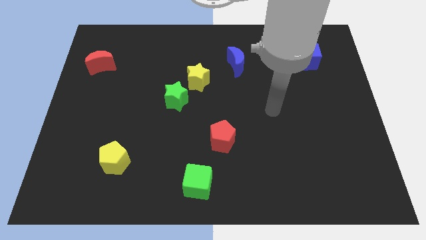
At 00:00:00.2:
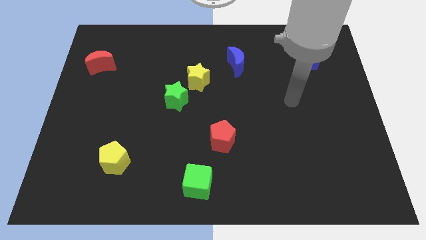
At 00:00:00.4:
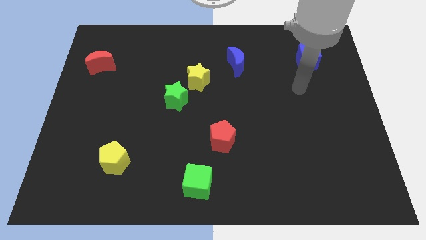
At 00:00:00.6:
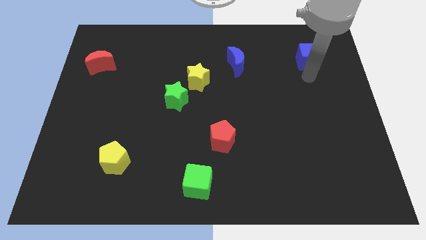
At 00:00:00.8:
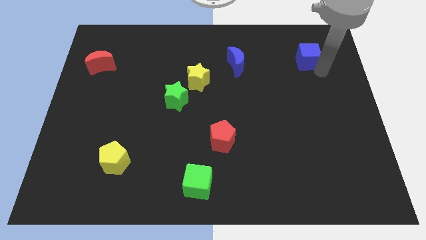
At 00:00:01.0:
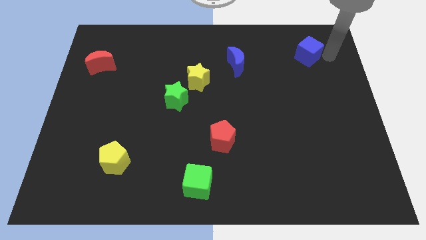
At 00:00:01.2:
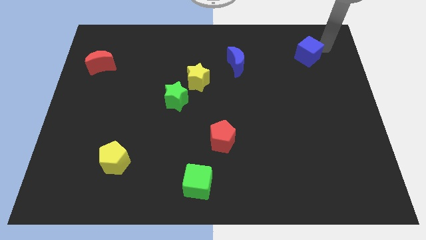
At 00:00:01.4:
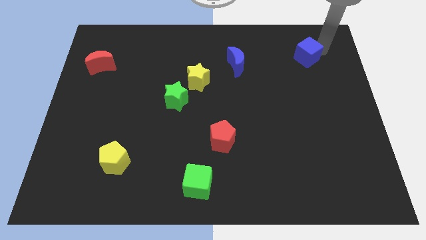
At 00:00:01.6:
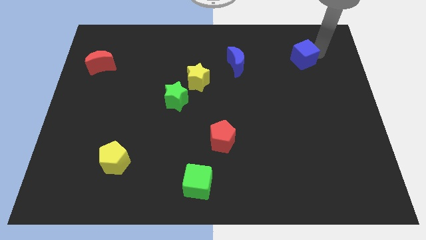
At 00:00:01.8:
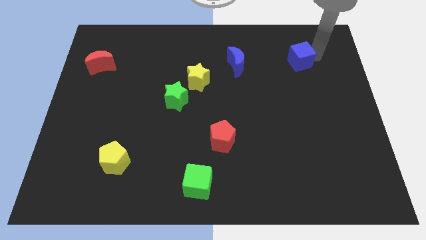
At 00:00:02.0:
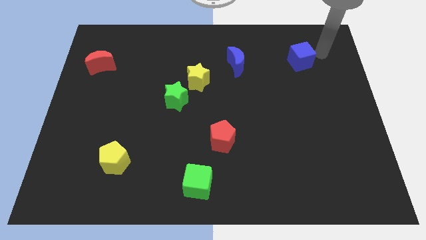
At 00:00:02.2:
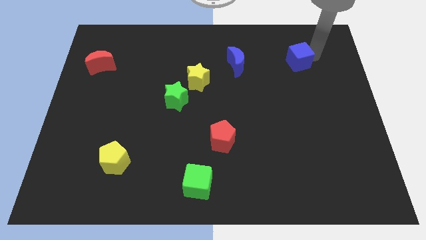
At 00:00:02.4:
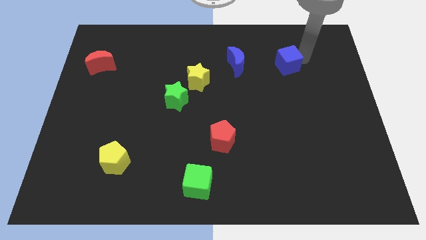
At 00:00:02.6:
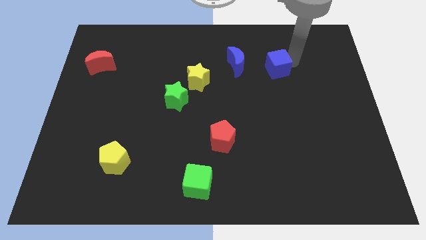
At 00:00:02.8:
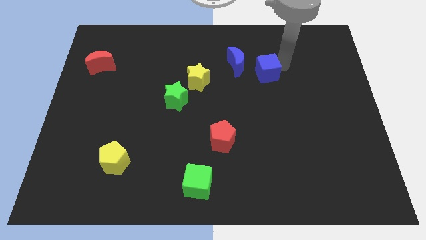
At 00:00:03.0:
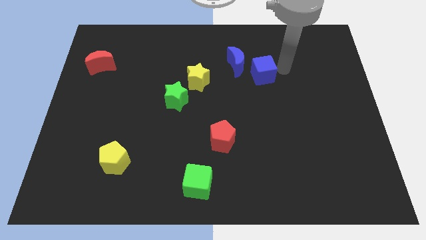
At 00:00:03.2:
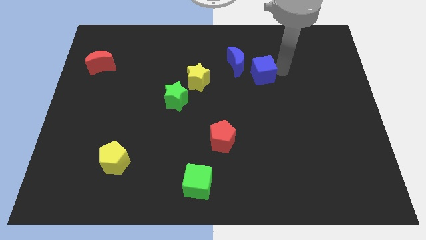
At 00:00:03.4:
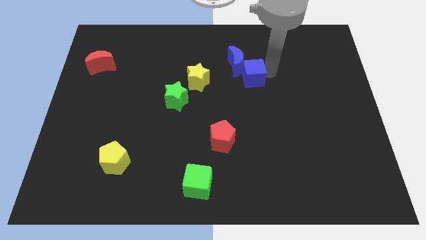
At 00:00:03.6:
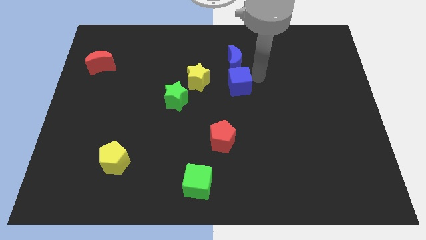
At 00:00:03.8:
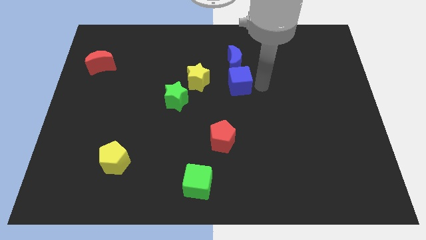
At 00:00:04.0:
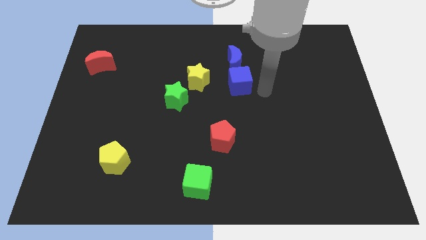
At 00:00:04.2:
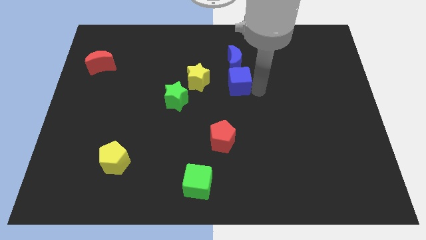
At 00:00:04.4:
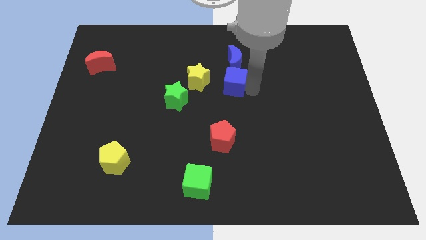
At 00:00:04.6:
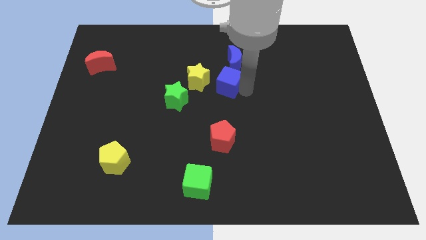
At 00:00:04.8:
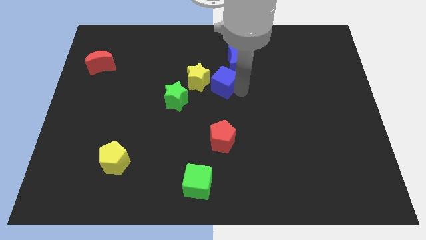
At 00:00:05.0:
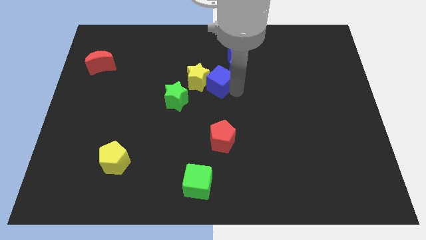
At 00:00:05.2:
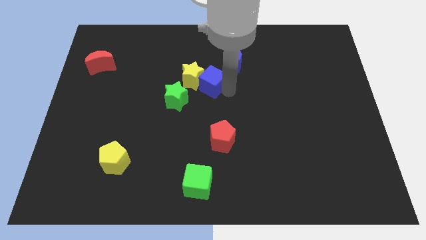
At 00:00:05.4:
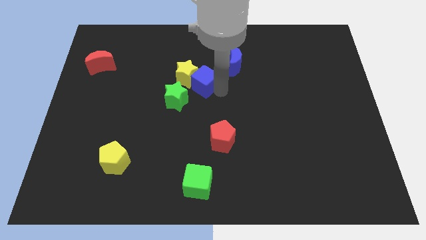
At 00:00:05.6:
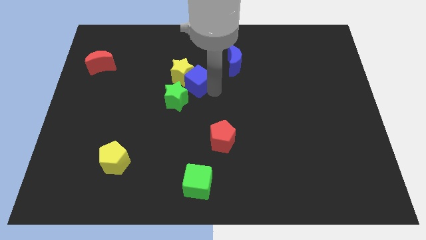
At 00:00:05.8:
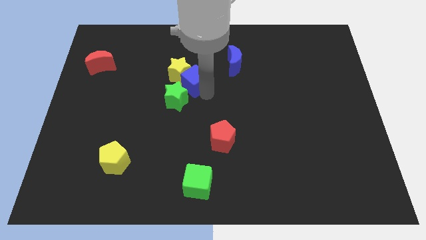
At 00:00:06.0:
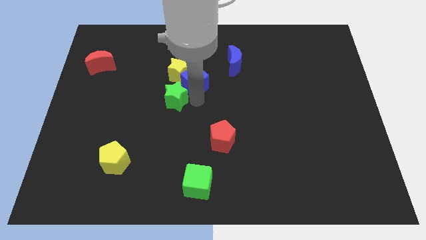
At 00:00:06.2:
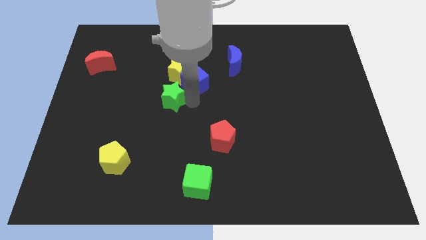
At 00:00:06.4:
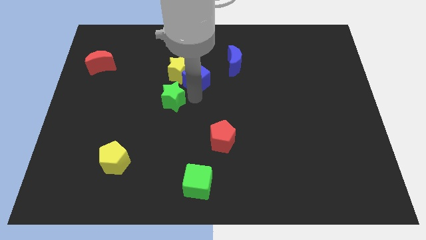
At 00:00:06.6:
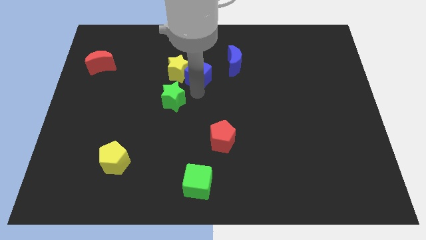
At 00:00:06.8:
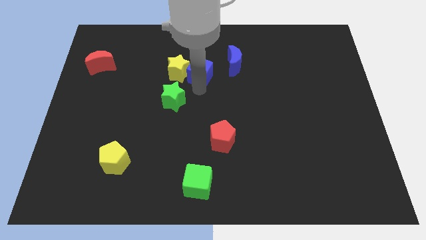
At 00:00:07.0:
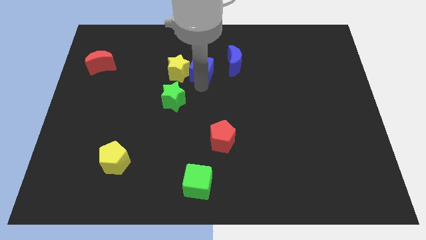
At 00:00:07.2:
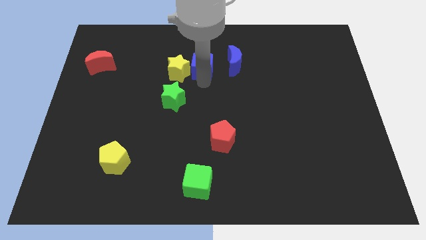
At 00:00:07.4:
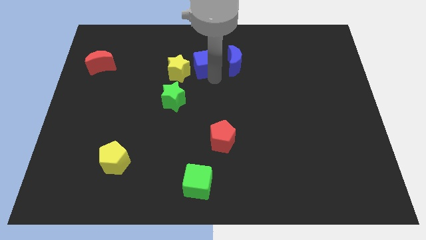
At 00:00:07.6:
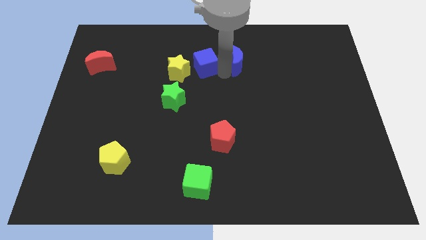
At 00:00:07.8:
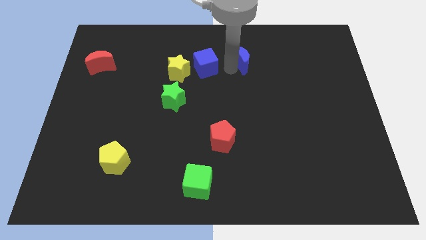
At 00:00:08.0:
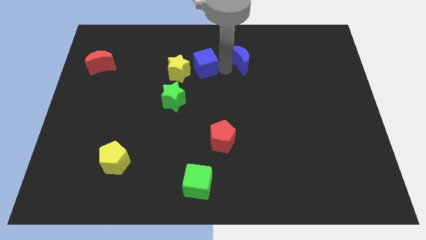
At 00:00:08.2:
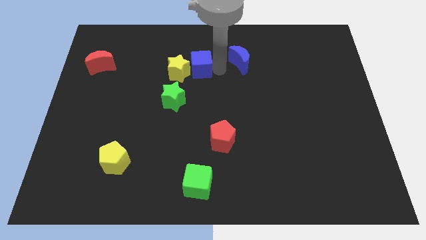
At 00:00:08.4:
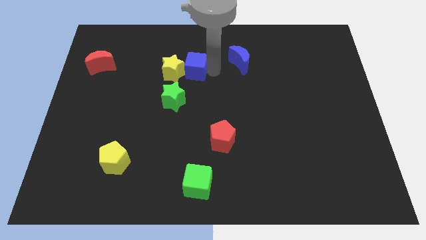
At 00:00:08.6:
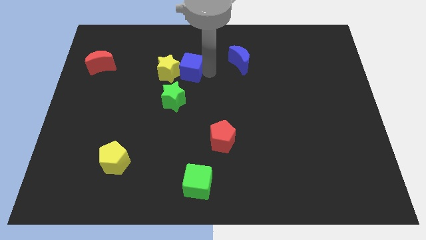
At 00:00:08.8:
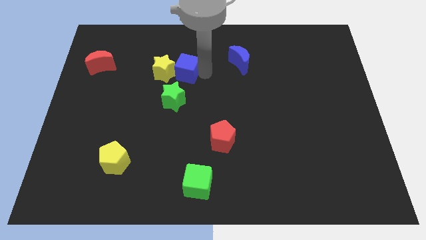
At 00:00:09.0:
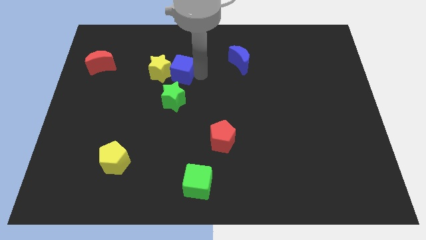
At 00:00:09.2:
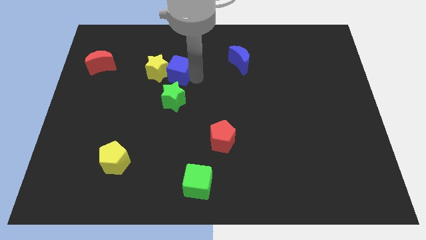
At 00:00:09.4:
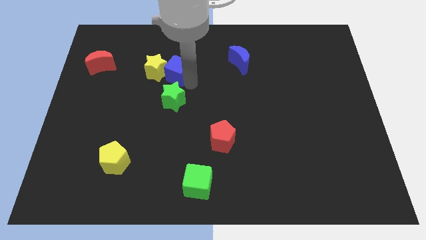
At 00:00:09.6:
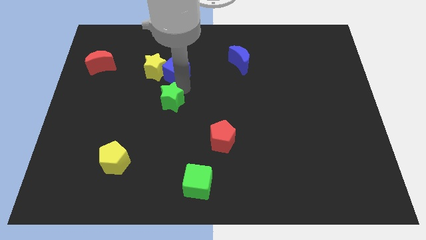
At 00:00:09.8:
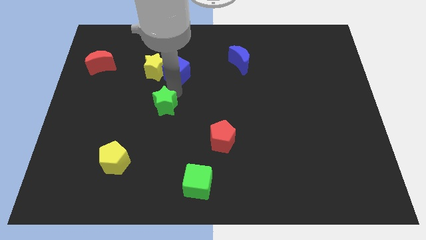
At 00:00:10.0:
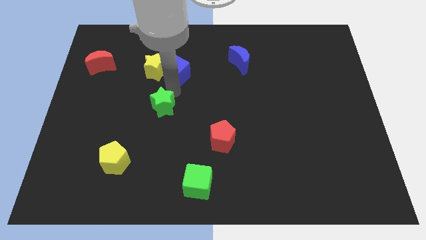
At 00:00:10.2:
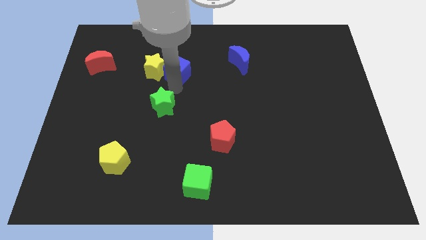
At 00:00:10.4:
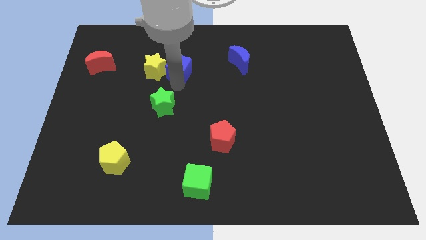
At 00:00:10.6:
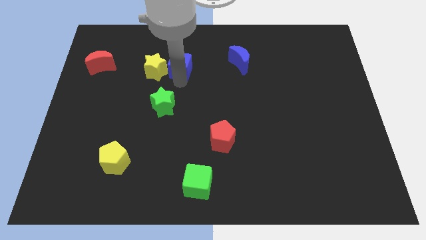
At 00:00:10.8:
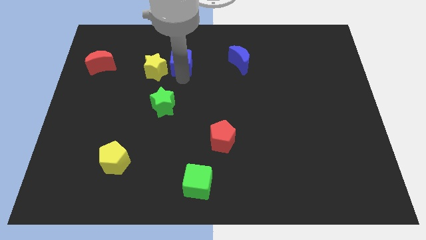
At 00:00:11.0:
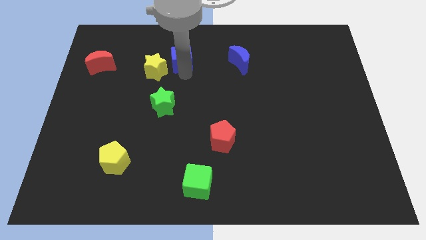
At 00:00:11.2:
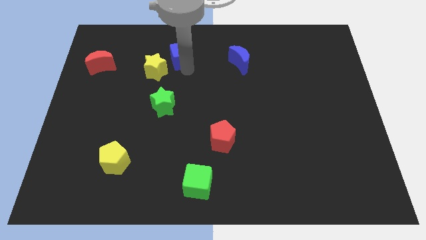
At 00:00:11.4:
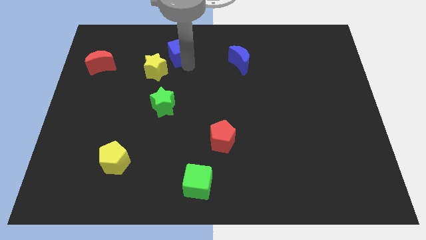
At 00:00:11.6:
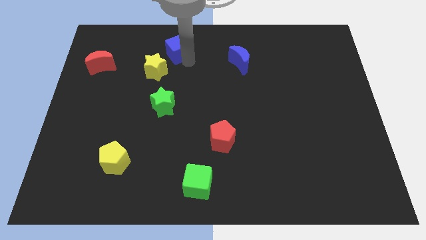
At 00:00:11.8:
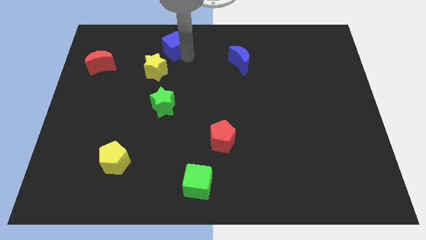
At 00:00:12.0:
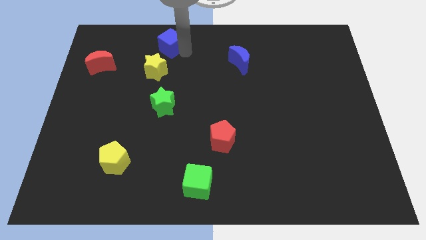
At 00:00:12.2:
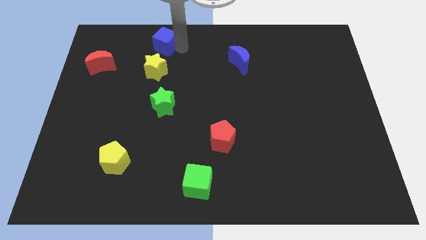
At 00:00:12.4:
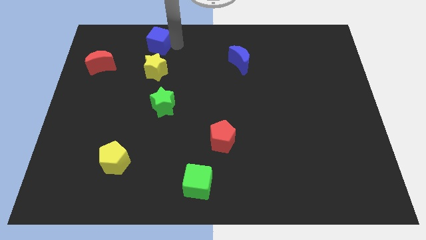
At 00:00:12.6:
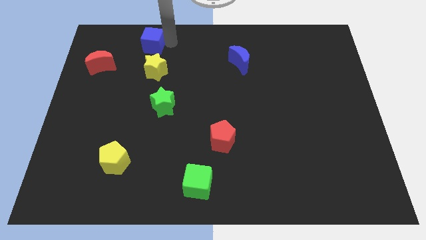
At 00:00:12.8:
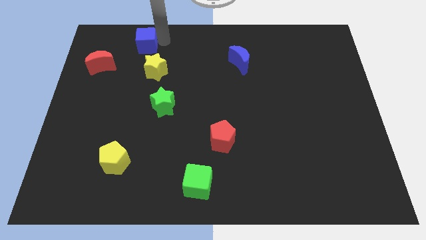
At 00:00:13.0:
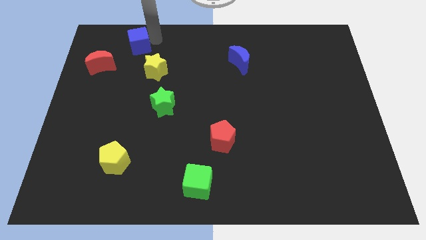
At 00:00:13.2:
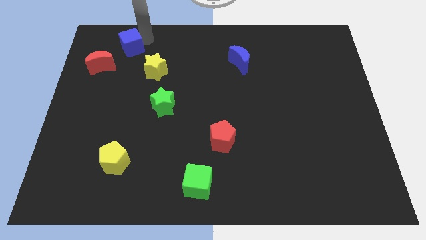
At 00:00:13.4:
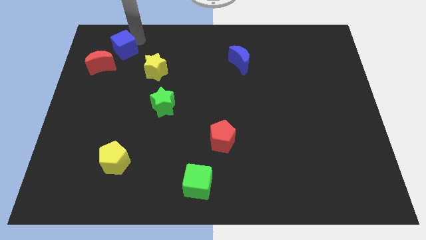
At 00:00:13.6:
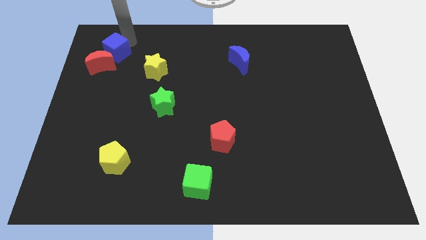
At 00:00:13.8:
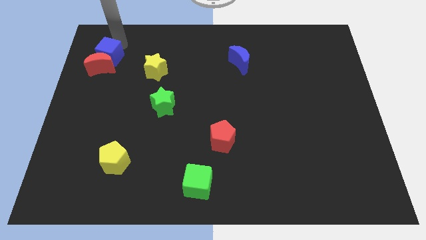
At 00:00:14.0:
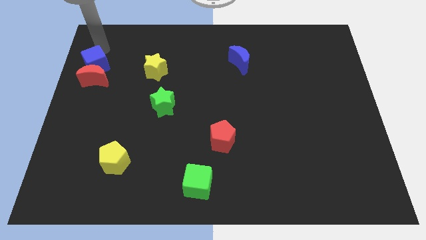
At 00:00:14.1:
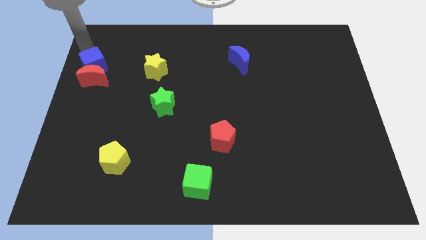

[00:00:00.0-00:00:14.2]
put the blue cube to the center left
